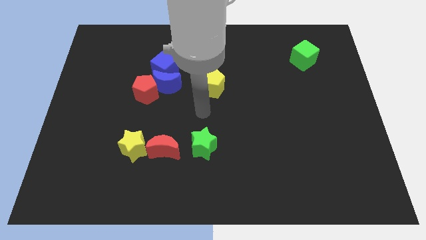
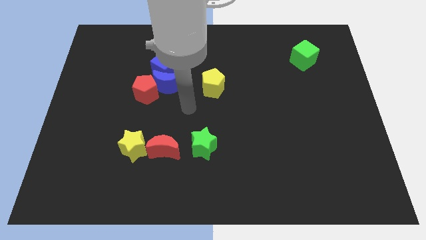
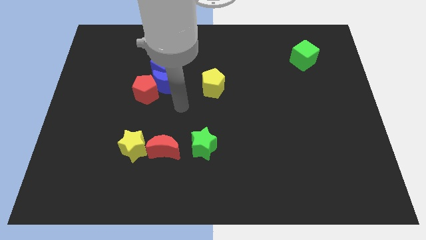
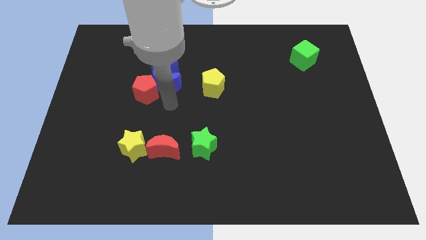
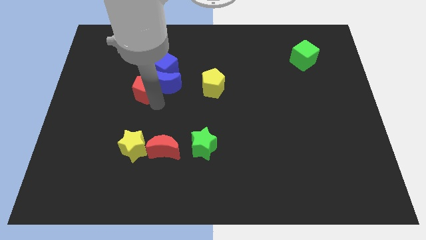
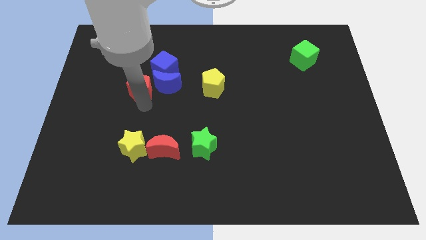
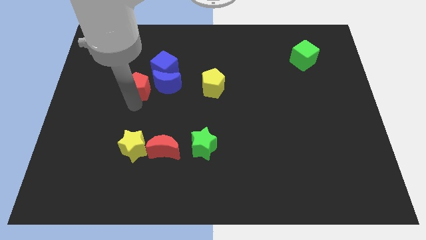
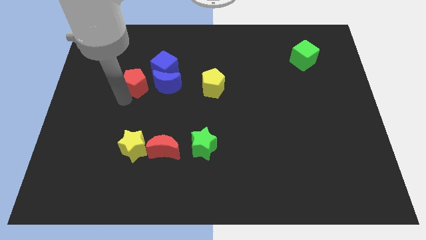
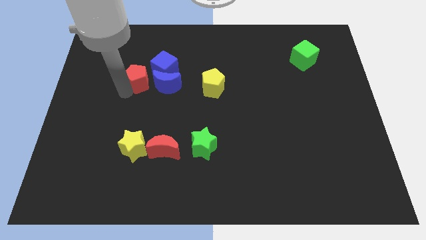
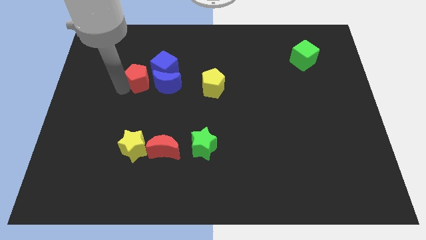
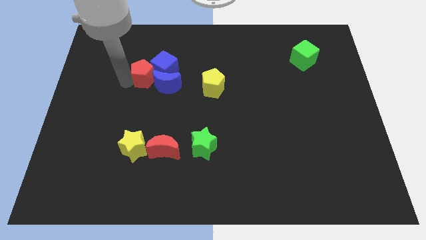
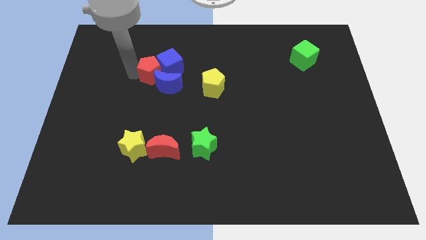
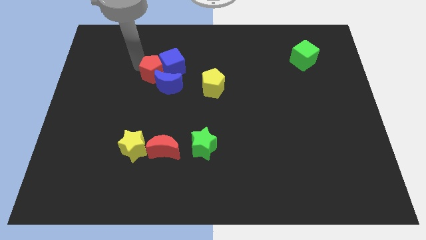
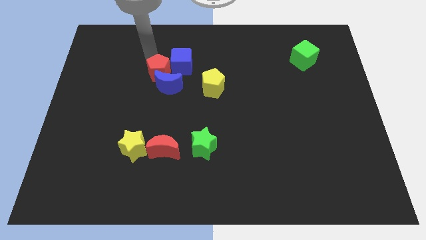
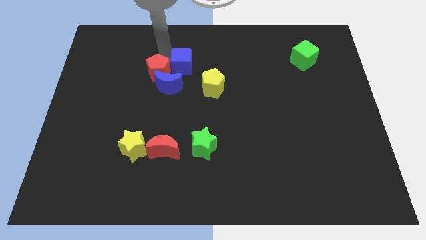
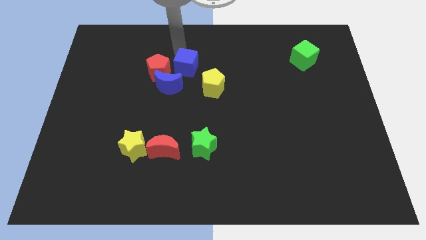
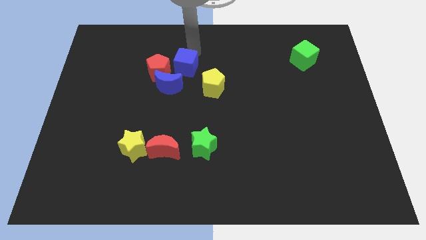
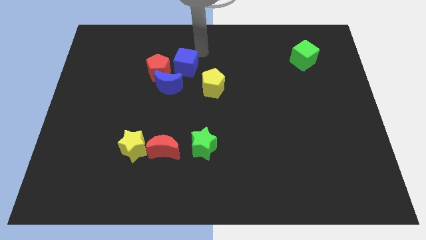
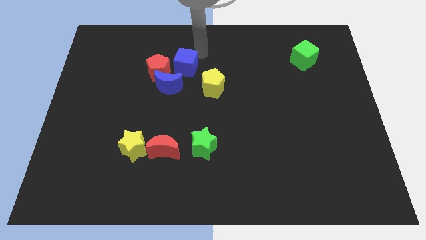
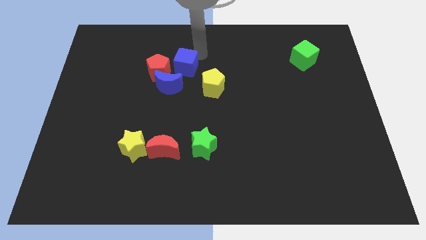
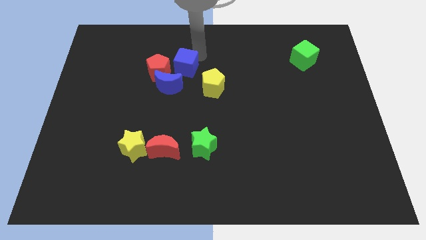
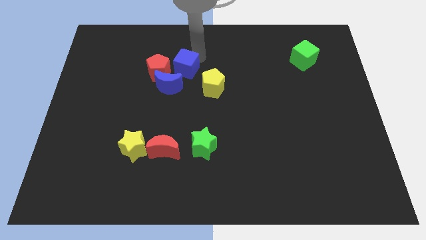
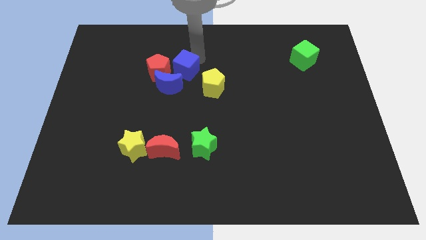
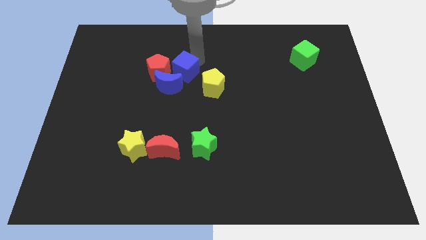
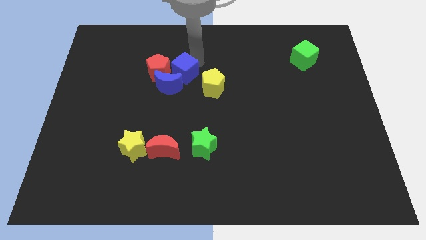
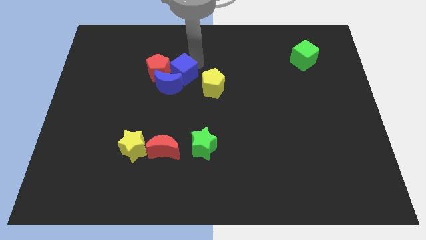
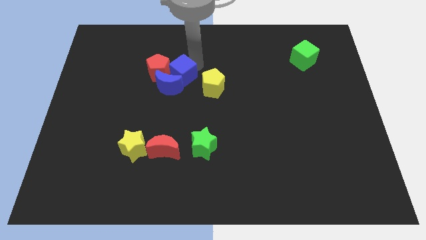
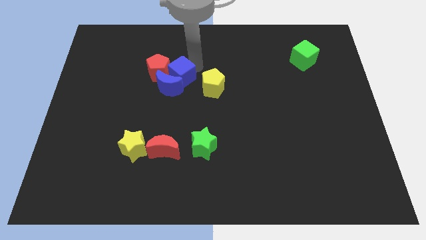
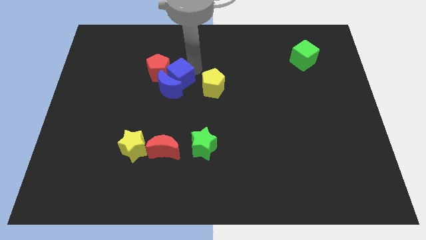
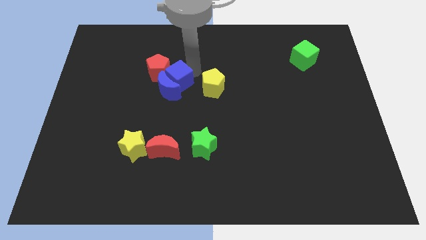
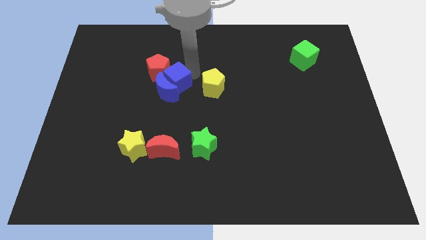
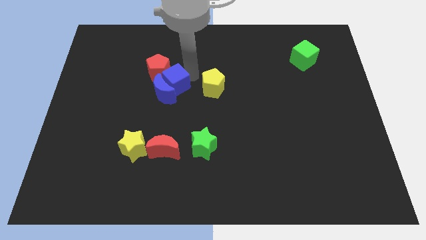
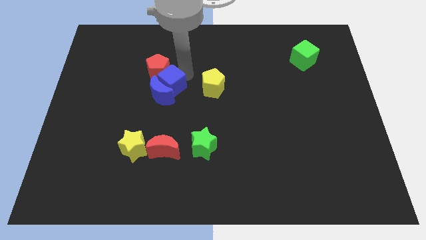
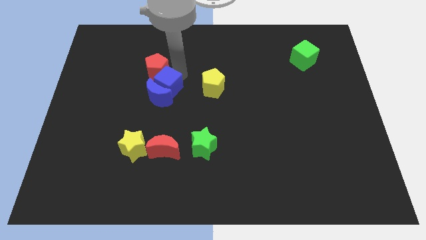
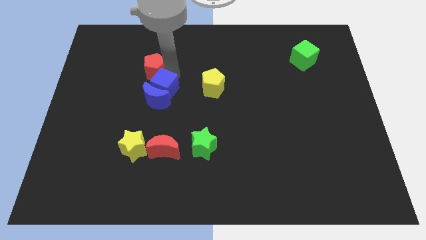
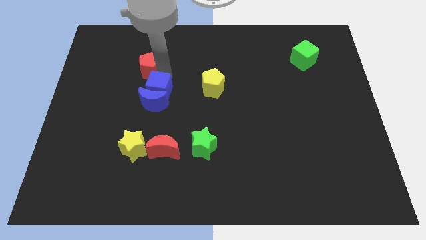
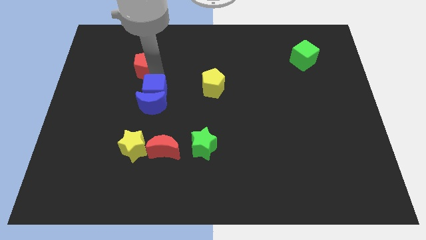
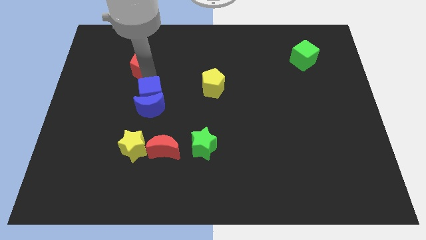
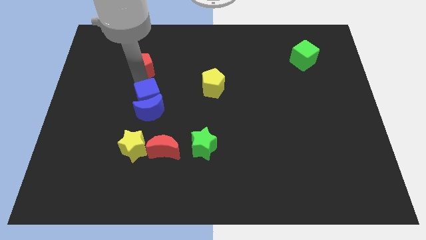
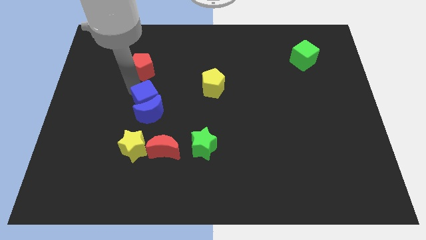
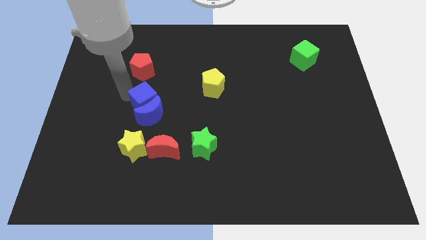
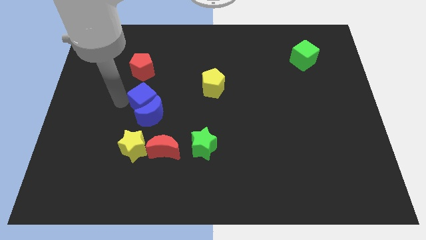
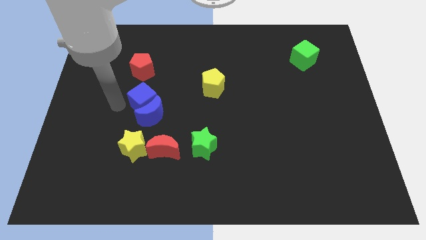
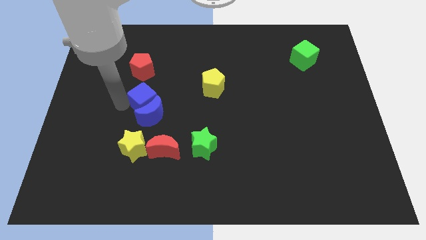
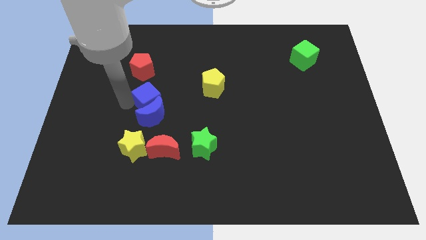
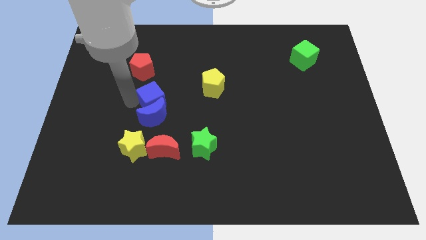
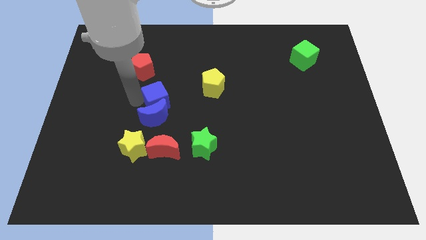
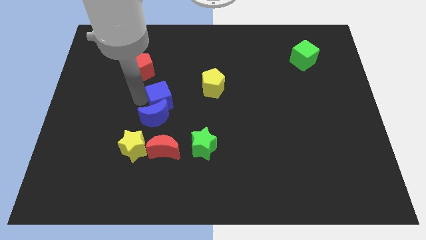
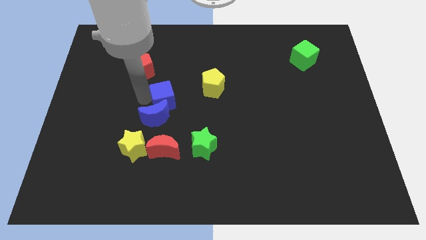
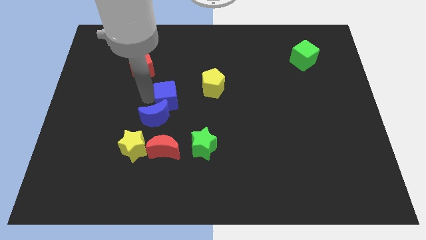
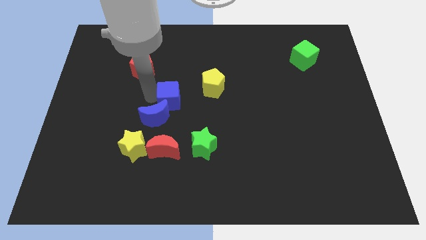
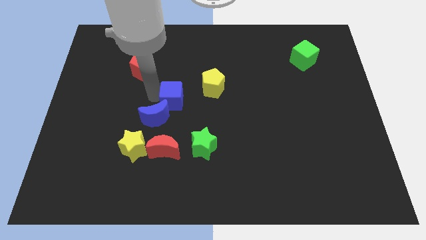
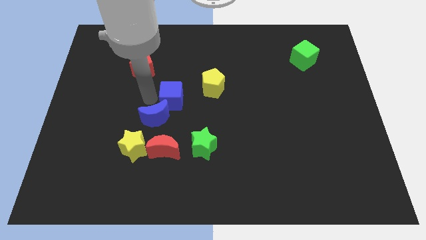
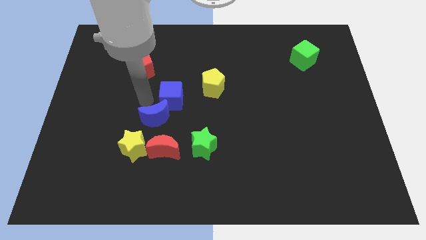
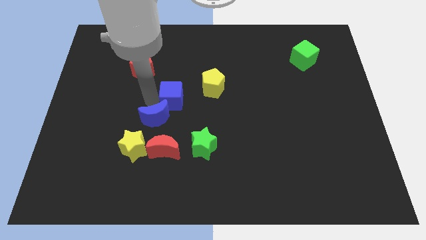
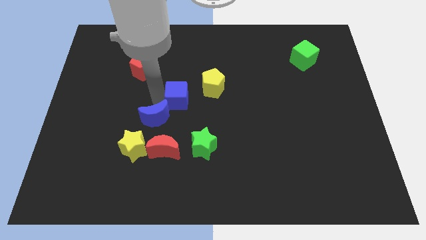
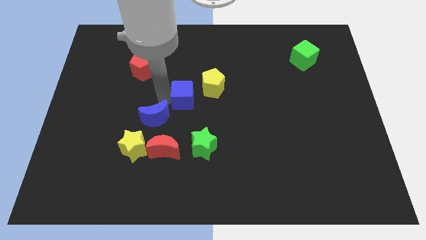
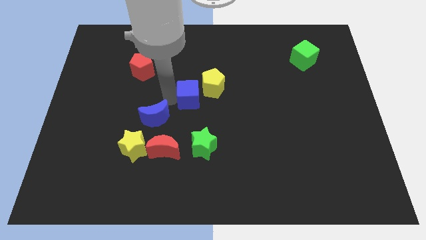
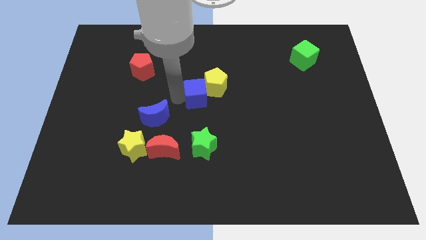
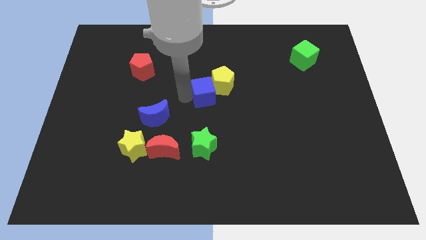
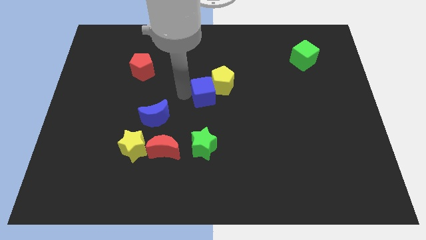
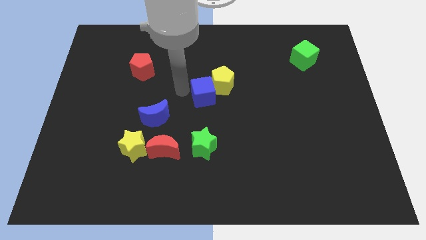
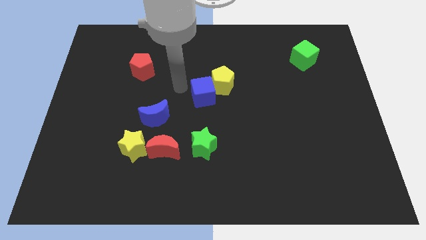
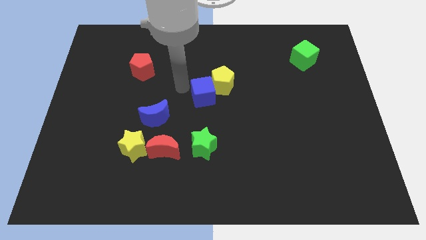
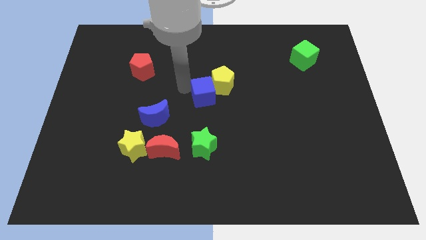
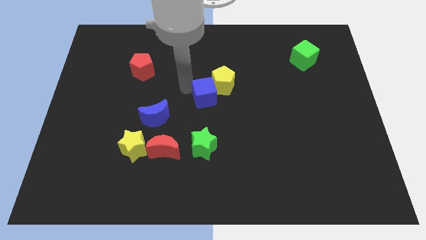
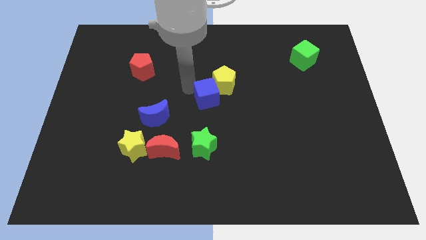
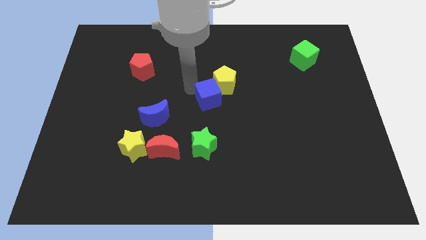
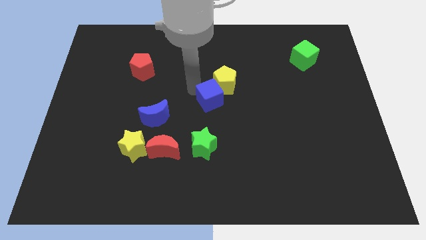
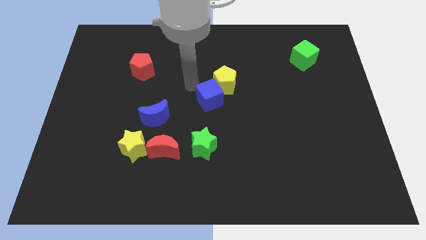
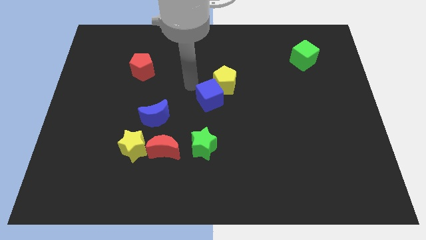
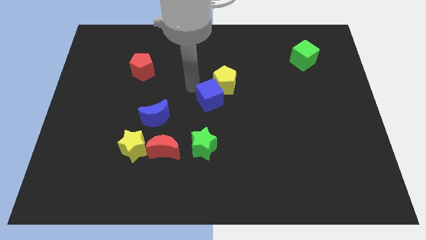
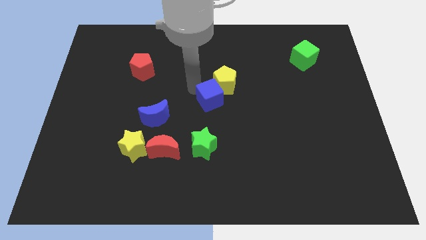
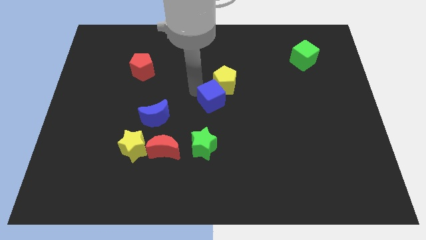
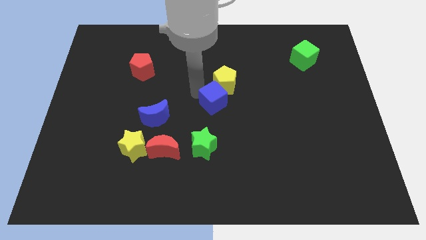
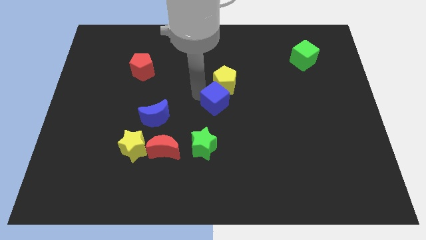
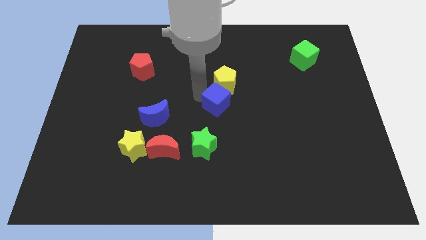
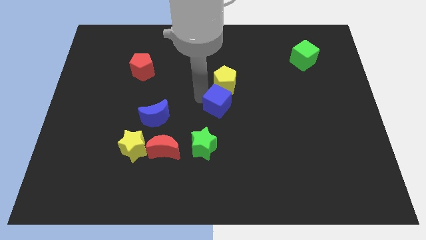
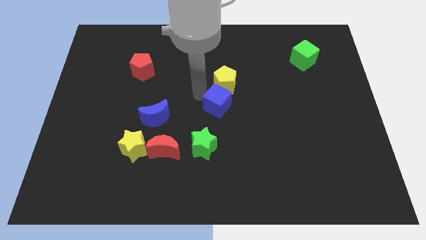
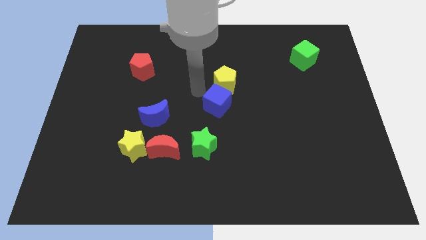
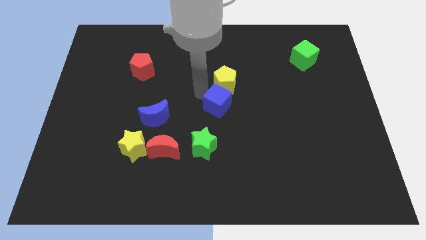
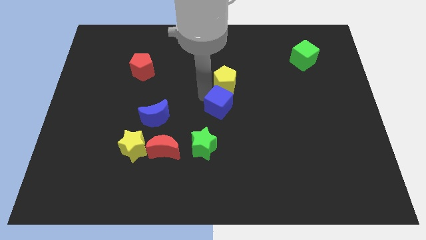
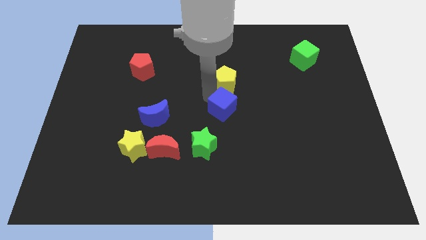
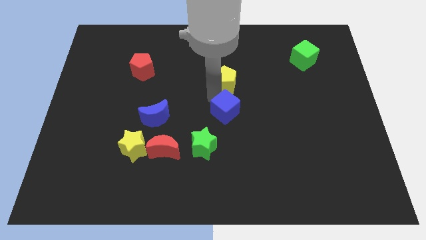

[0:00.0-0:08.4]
push the blue cube diagonally downwards and right

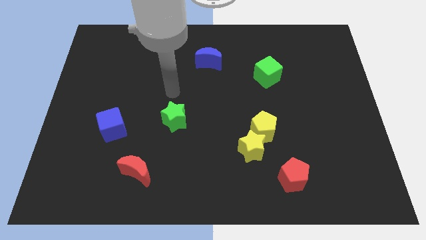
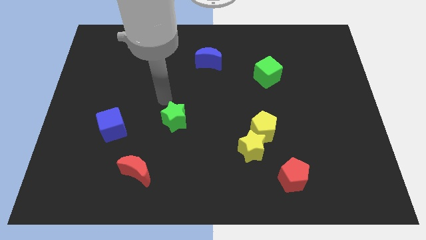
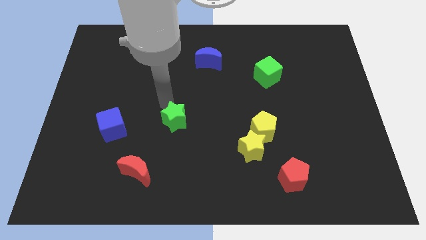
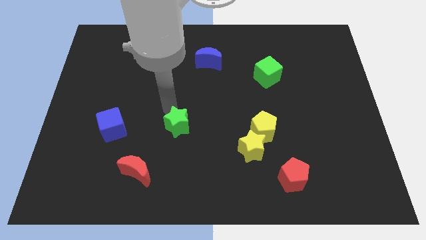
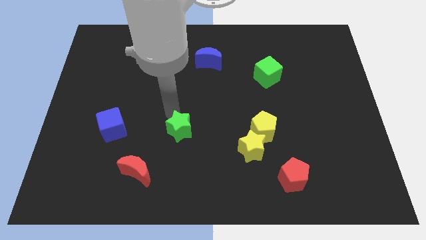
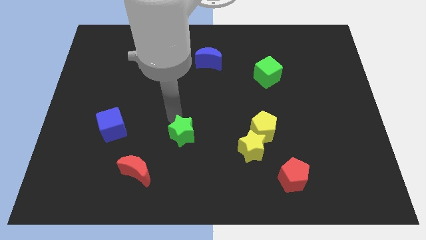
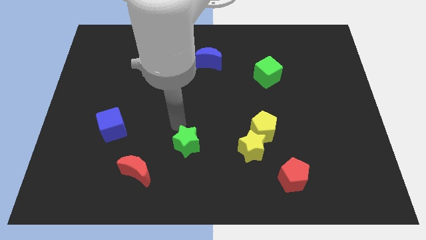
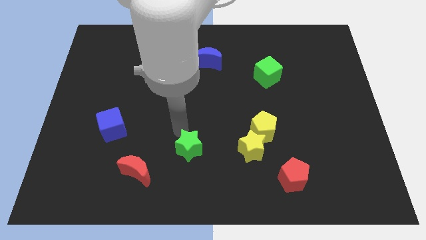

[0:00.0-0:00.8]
push the green star a little down and then right
